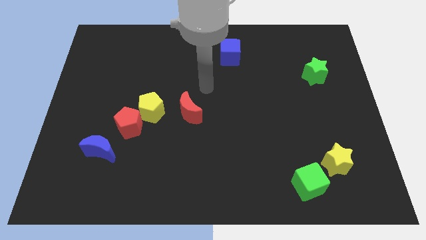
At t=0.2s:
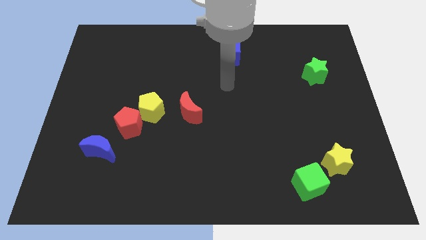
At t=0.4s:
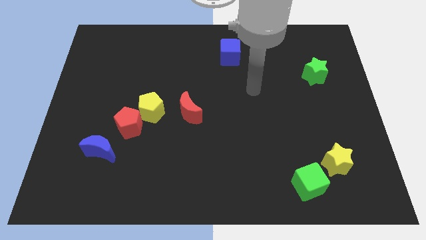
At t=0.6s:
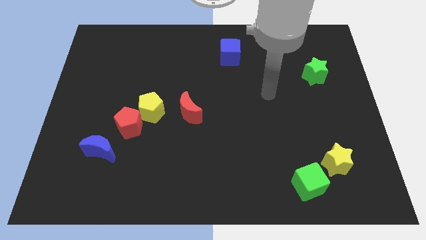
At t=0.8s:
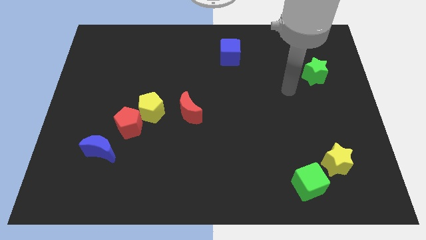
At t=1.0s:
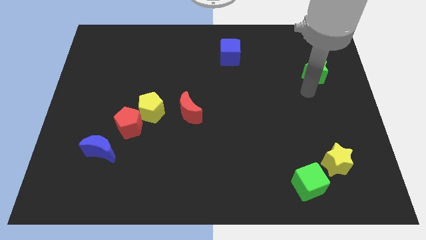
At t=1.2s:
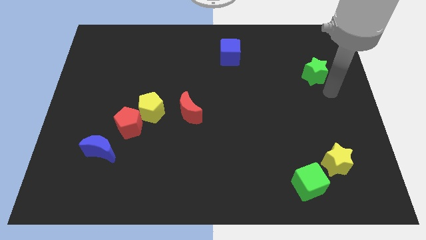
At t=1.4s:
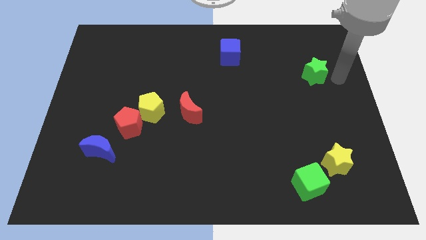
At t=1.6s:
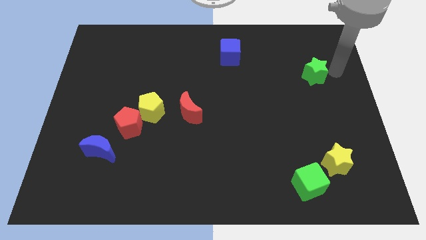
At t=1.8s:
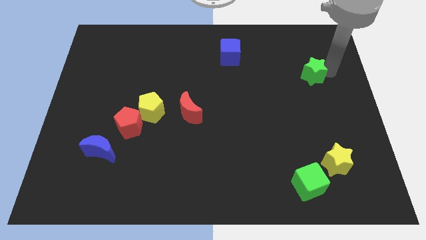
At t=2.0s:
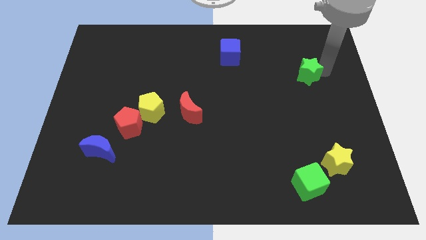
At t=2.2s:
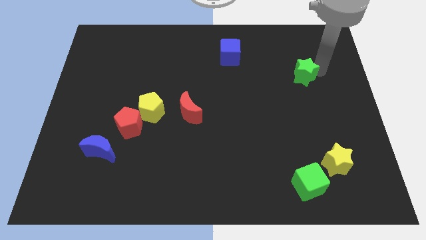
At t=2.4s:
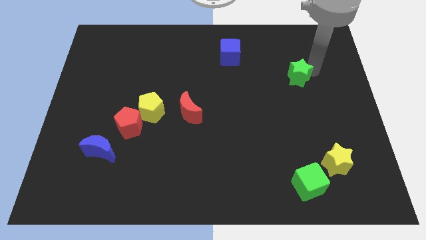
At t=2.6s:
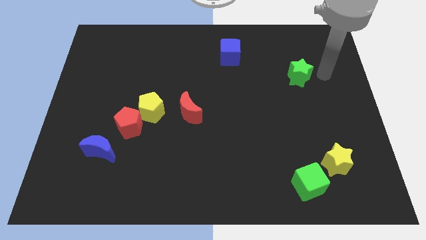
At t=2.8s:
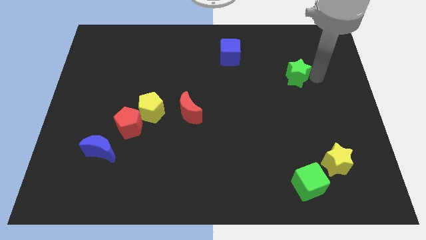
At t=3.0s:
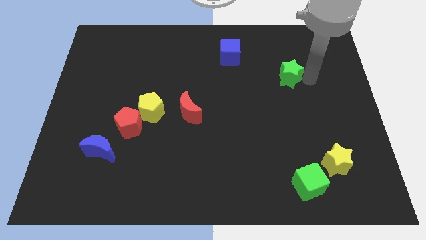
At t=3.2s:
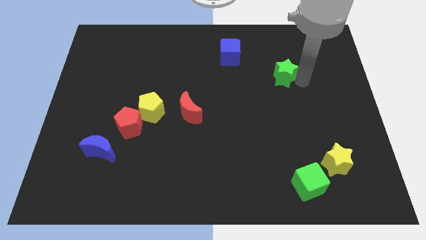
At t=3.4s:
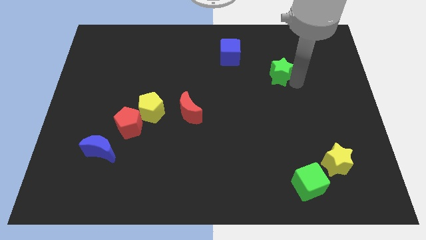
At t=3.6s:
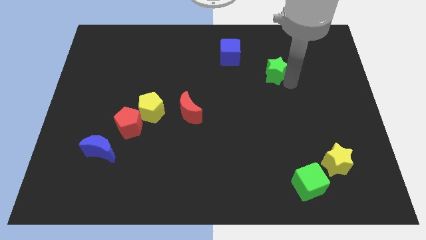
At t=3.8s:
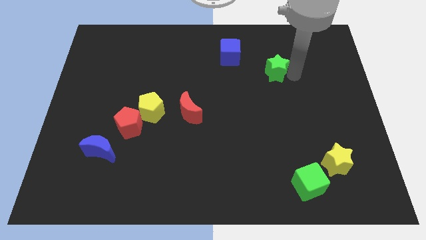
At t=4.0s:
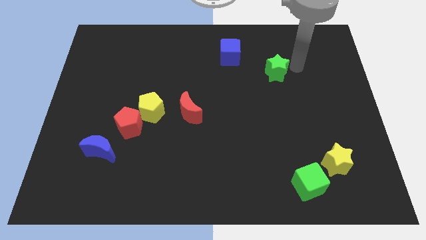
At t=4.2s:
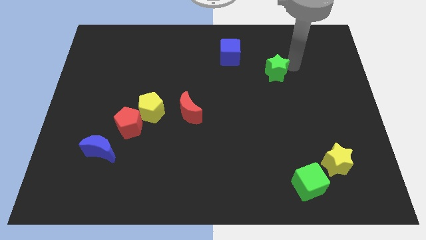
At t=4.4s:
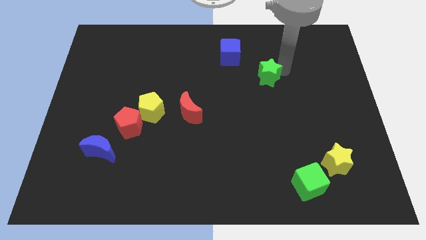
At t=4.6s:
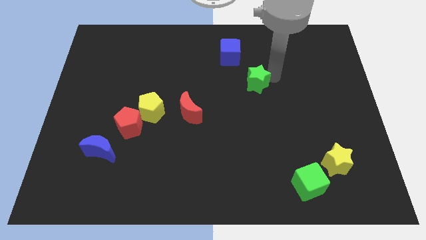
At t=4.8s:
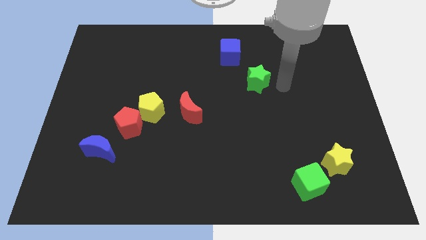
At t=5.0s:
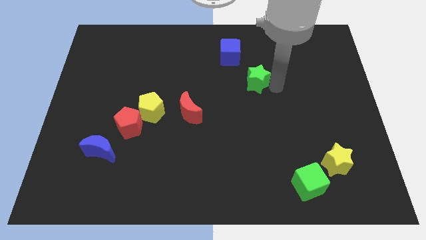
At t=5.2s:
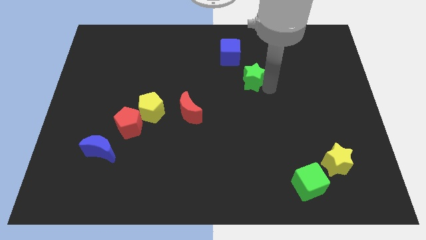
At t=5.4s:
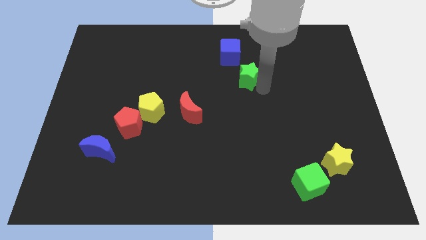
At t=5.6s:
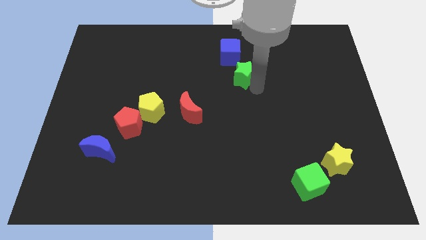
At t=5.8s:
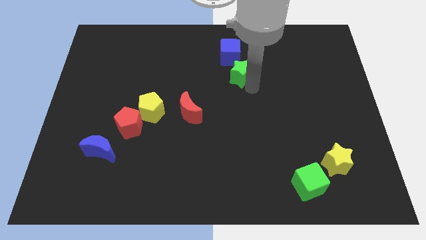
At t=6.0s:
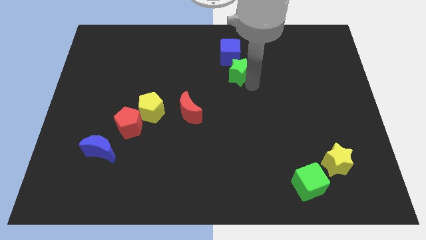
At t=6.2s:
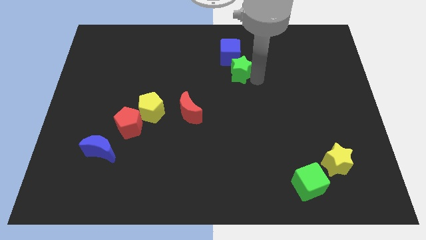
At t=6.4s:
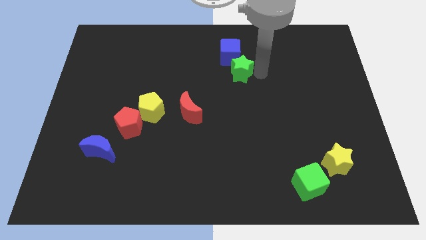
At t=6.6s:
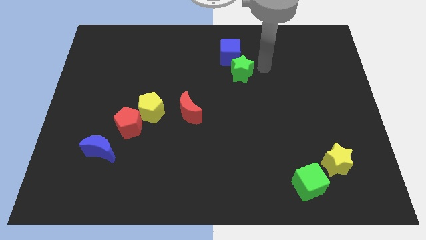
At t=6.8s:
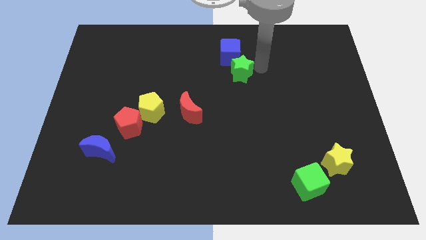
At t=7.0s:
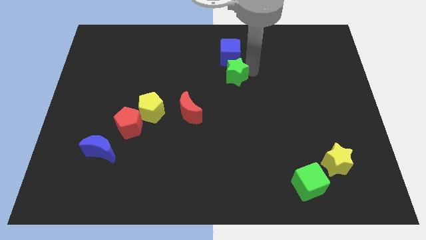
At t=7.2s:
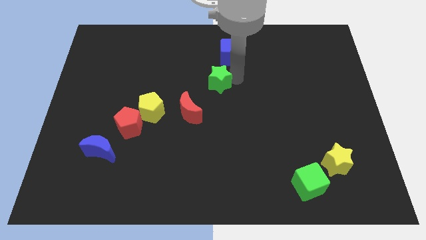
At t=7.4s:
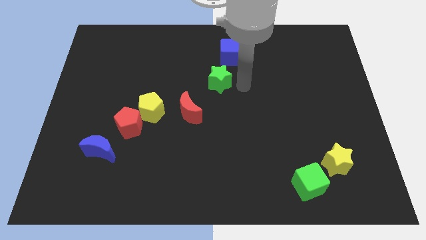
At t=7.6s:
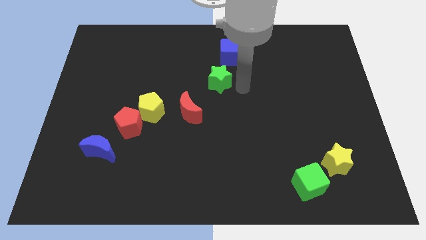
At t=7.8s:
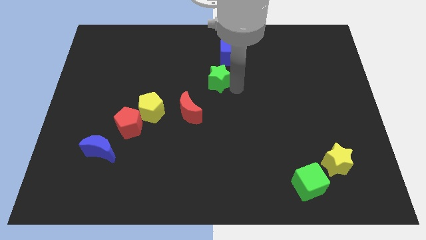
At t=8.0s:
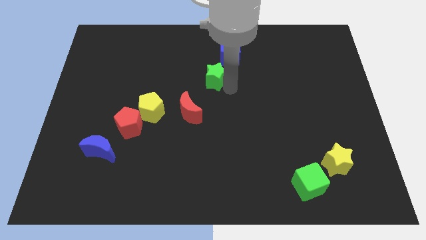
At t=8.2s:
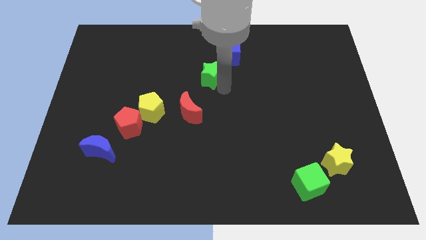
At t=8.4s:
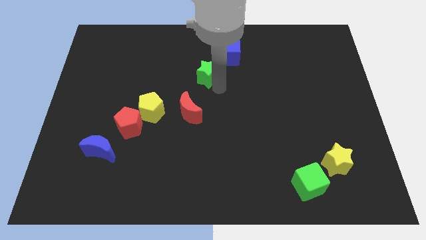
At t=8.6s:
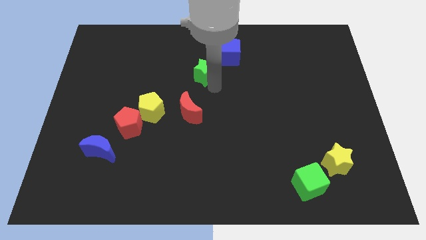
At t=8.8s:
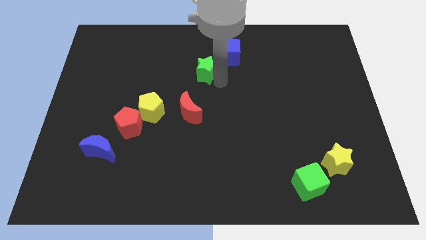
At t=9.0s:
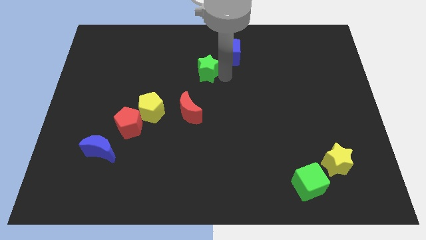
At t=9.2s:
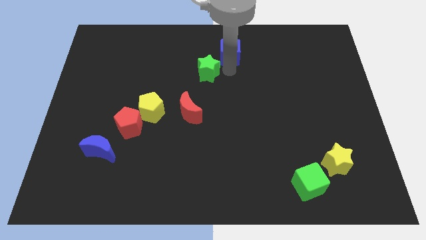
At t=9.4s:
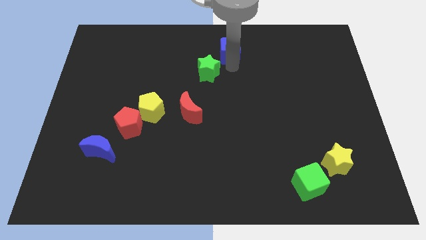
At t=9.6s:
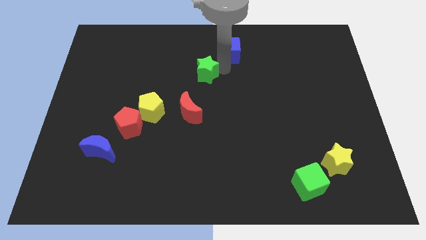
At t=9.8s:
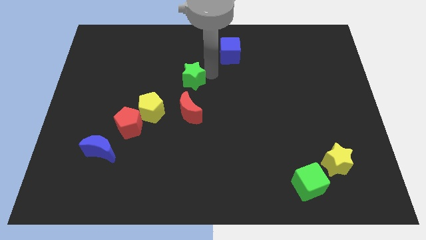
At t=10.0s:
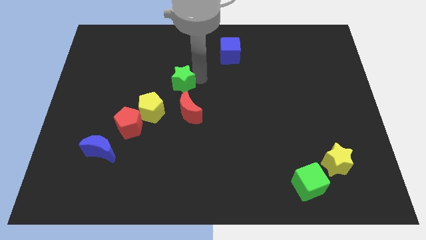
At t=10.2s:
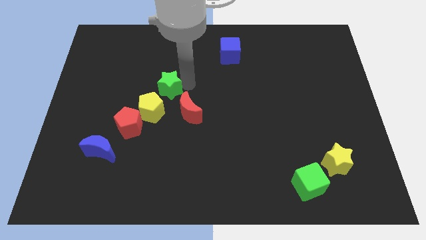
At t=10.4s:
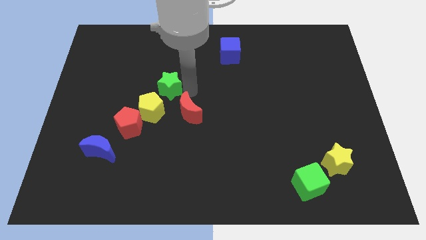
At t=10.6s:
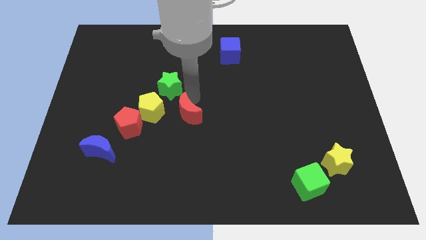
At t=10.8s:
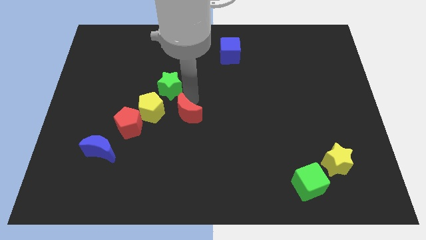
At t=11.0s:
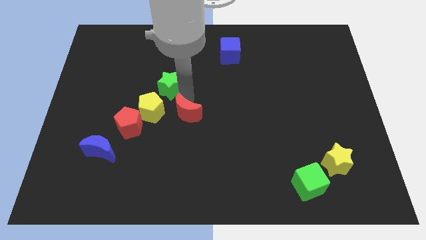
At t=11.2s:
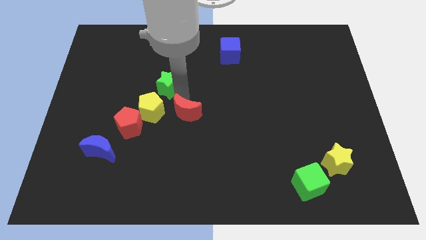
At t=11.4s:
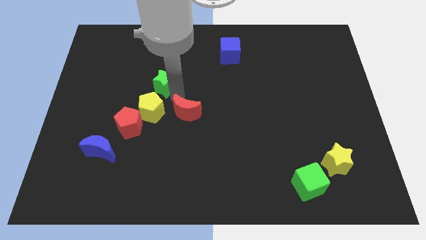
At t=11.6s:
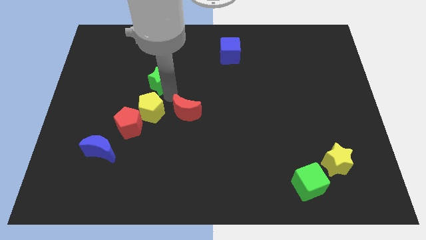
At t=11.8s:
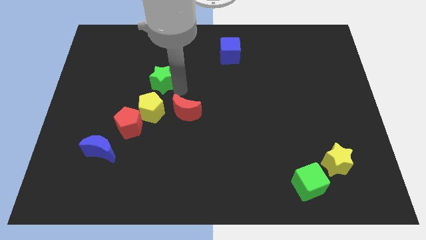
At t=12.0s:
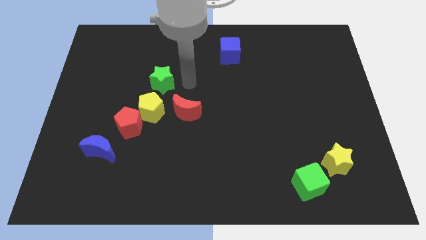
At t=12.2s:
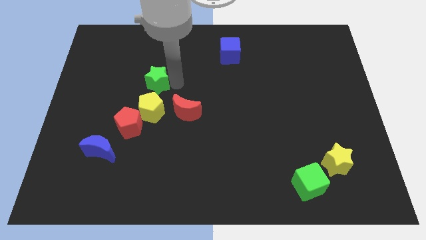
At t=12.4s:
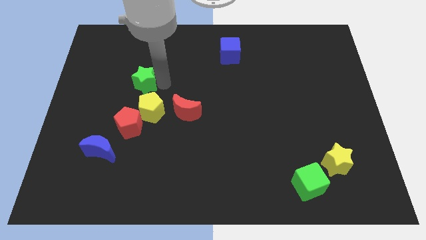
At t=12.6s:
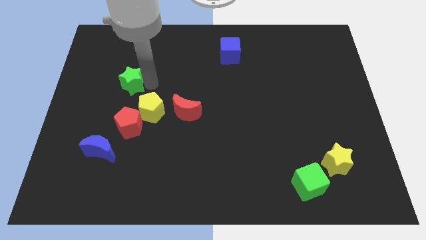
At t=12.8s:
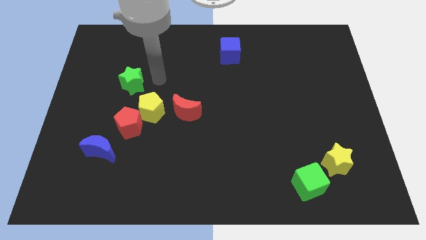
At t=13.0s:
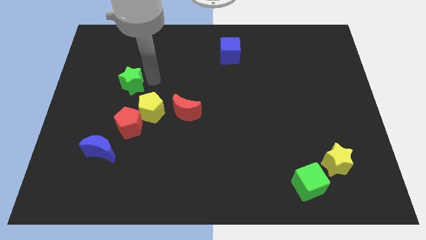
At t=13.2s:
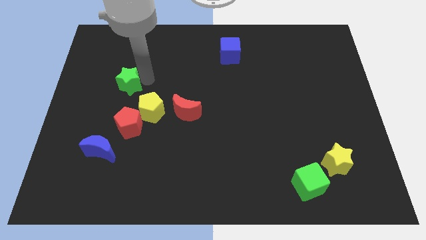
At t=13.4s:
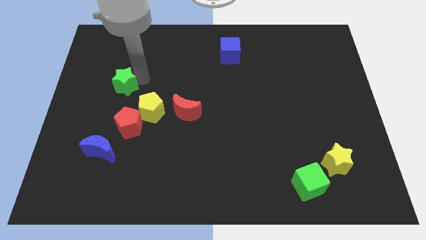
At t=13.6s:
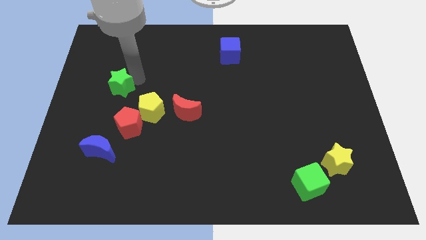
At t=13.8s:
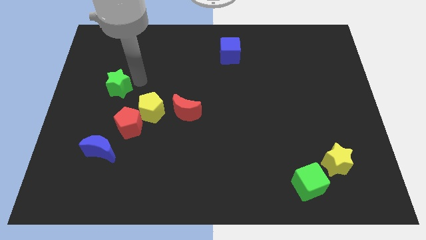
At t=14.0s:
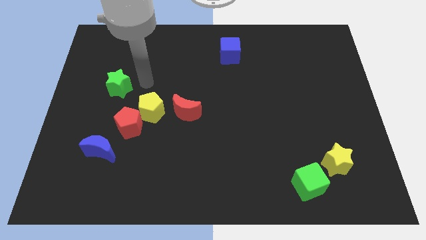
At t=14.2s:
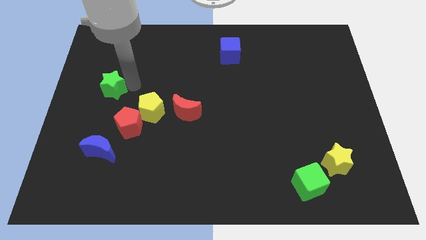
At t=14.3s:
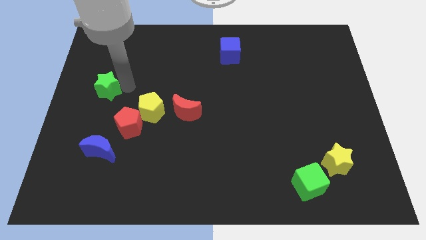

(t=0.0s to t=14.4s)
slide the green star to the center left
